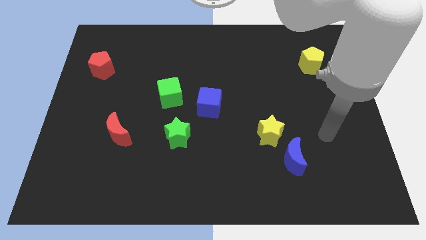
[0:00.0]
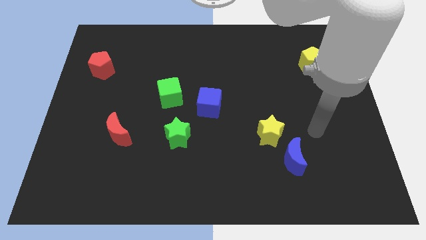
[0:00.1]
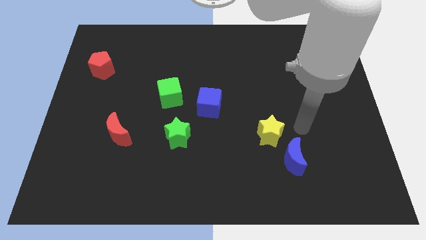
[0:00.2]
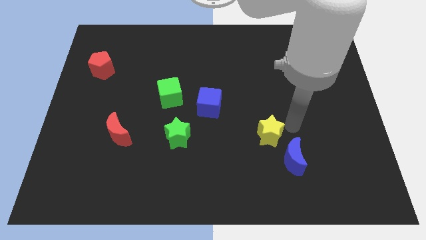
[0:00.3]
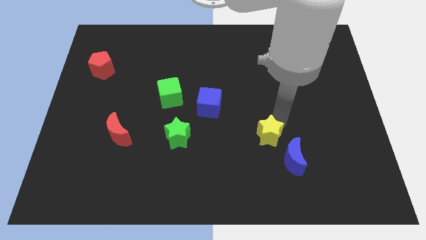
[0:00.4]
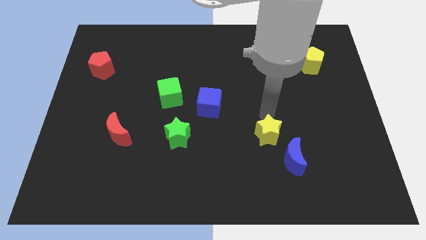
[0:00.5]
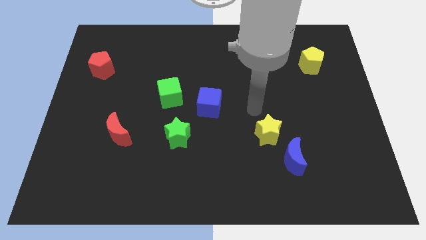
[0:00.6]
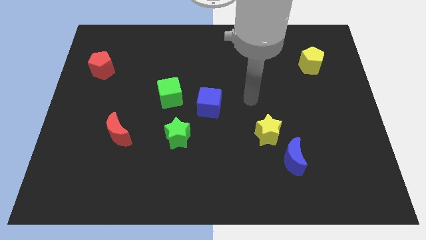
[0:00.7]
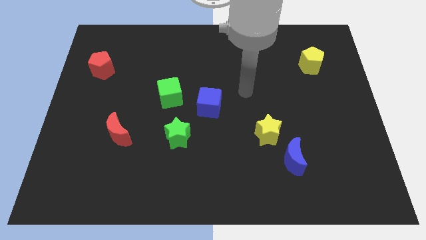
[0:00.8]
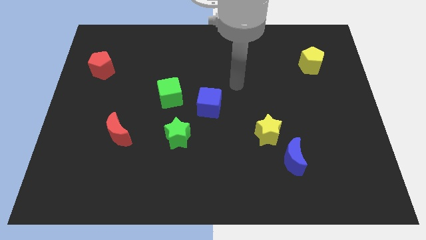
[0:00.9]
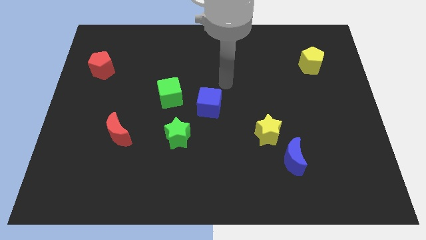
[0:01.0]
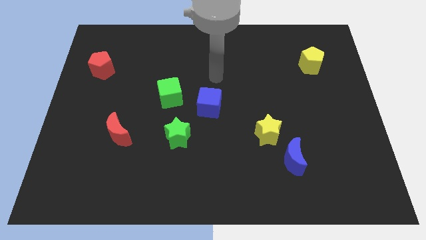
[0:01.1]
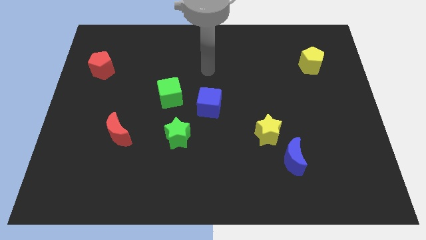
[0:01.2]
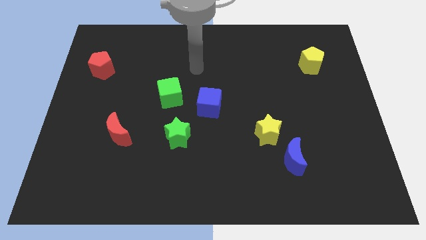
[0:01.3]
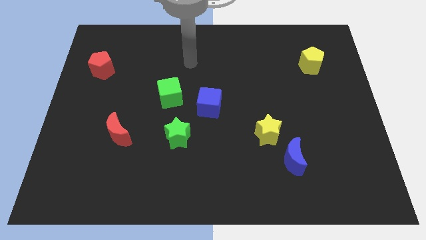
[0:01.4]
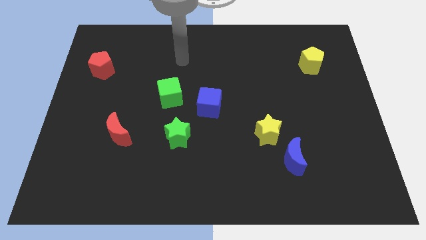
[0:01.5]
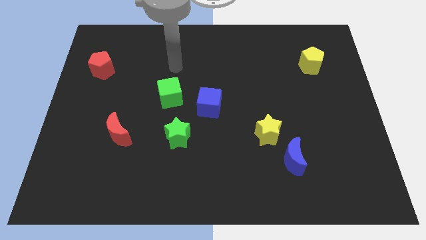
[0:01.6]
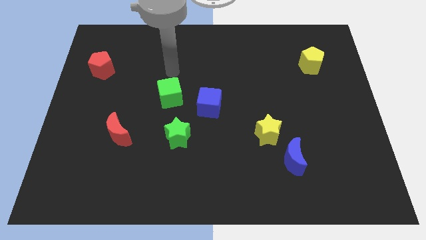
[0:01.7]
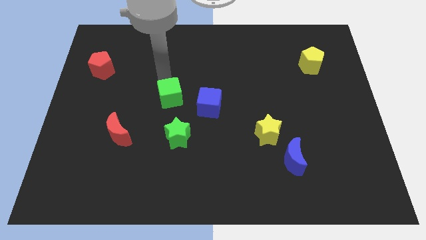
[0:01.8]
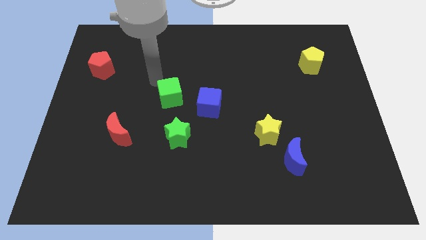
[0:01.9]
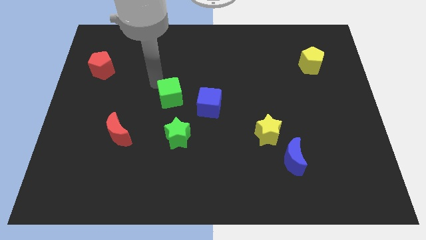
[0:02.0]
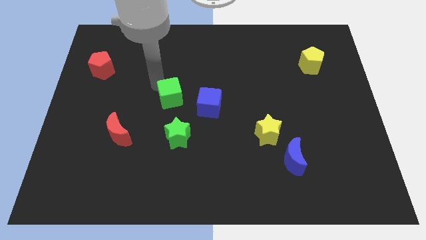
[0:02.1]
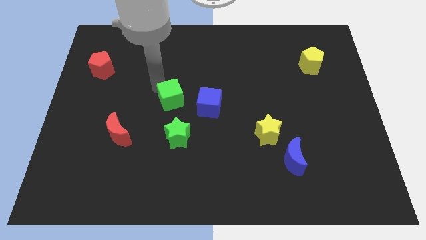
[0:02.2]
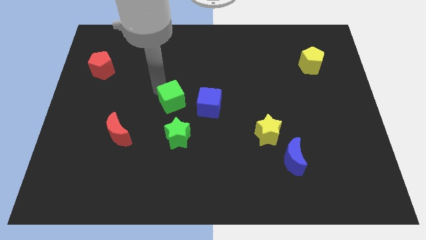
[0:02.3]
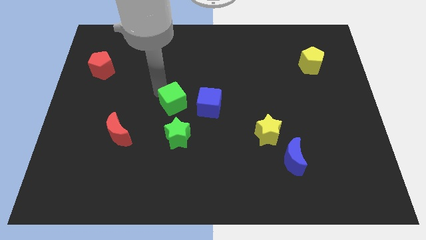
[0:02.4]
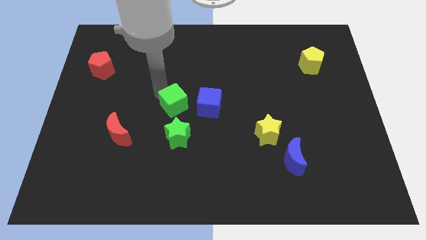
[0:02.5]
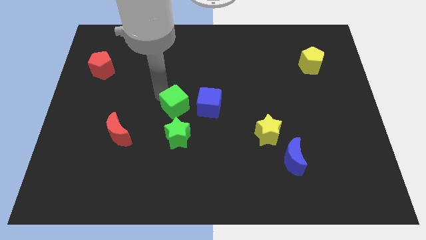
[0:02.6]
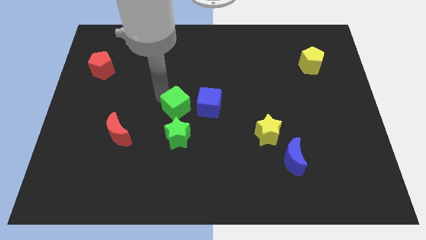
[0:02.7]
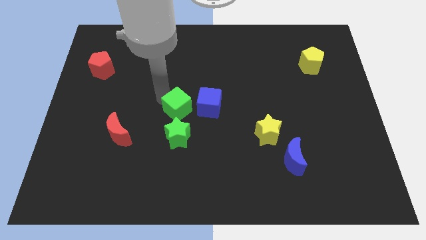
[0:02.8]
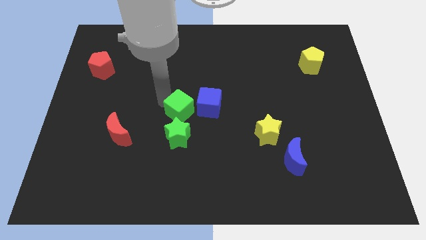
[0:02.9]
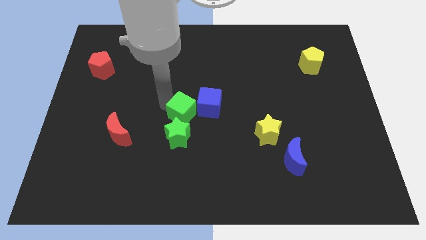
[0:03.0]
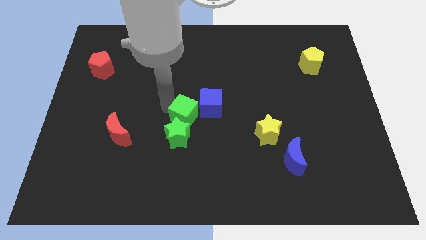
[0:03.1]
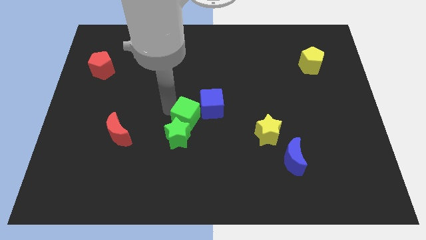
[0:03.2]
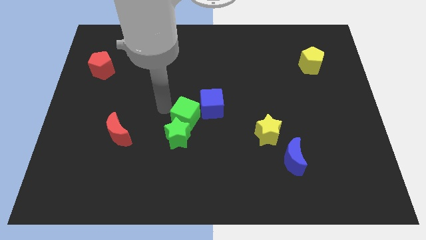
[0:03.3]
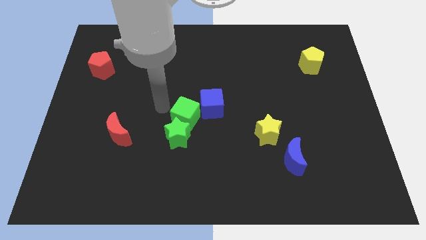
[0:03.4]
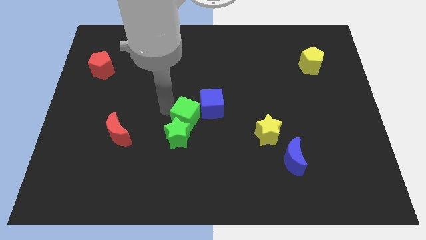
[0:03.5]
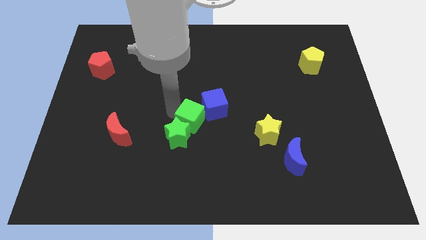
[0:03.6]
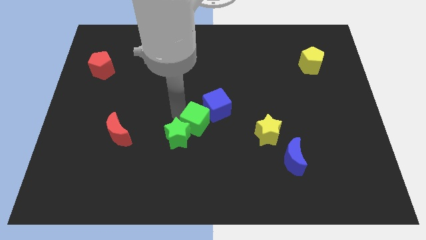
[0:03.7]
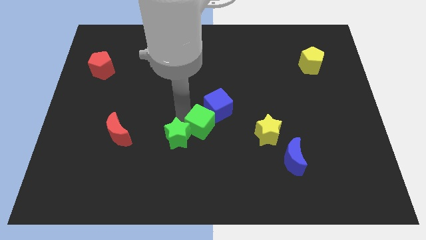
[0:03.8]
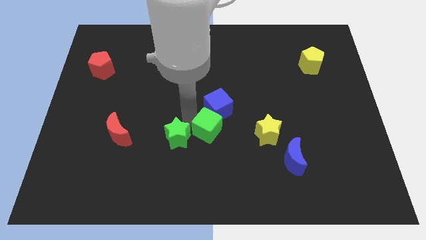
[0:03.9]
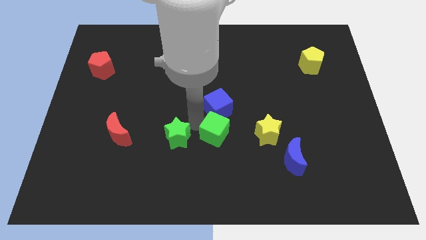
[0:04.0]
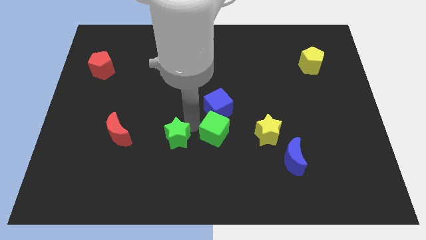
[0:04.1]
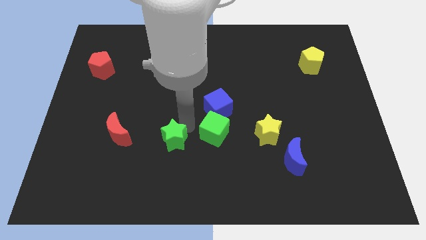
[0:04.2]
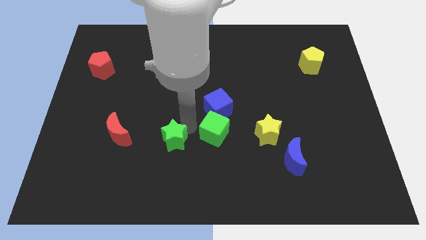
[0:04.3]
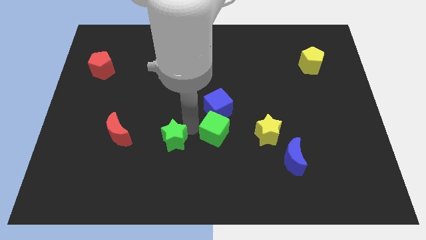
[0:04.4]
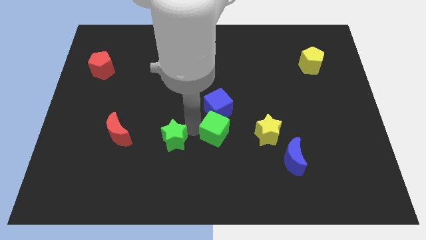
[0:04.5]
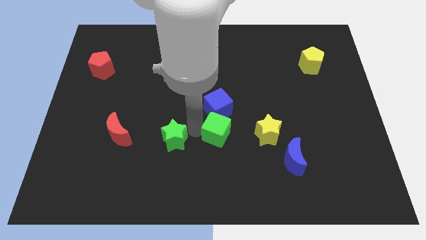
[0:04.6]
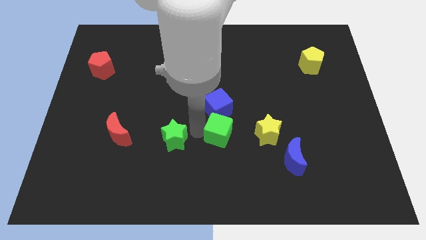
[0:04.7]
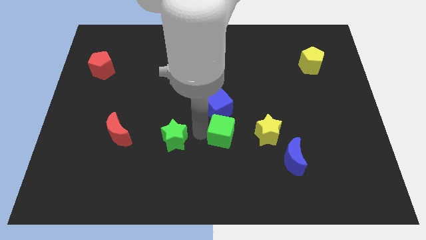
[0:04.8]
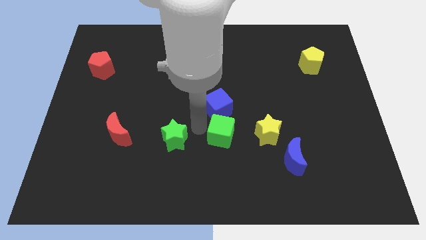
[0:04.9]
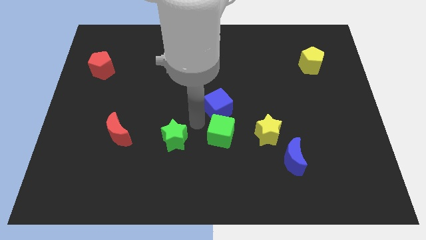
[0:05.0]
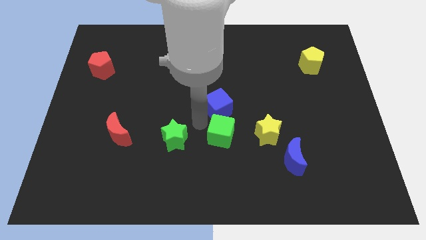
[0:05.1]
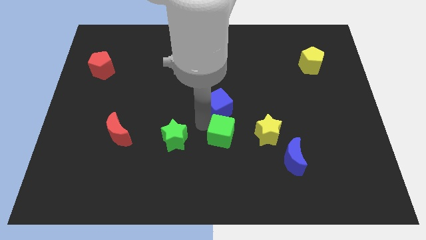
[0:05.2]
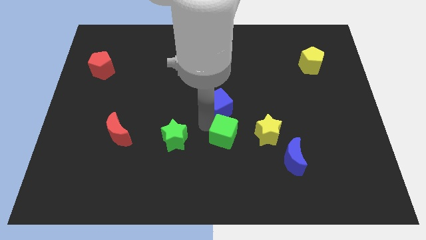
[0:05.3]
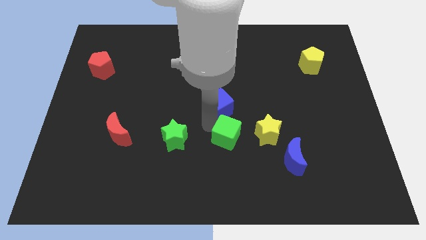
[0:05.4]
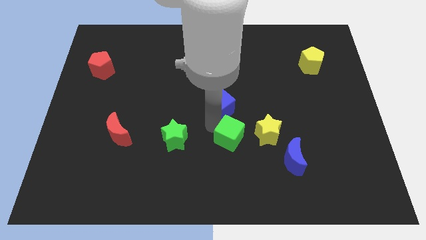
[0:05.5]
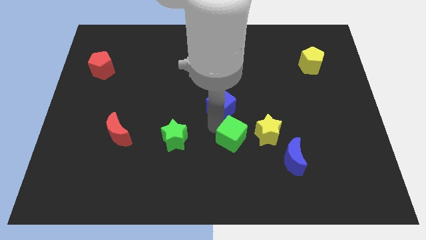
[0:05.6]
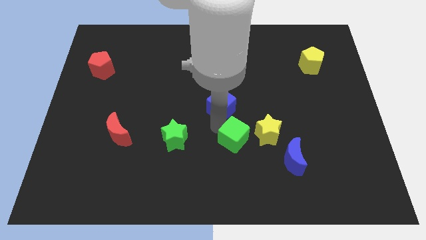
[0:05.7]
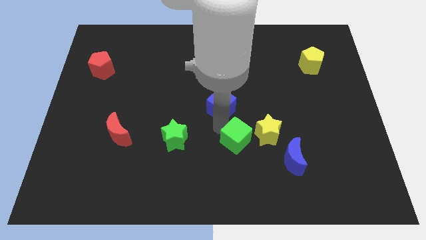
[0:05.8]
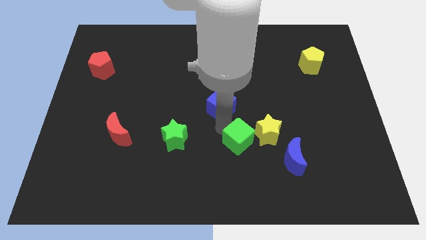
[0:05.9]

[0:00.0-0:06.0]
move the green cube diagonally downwards and right

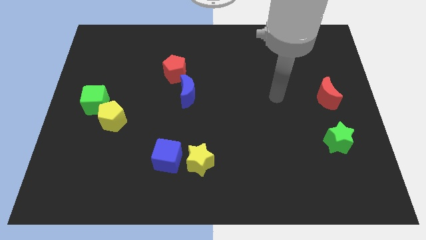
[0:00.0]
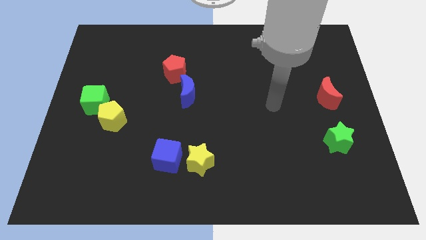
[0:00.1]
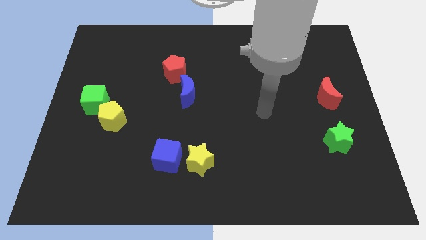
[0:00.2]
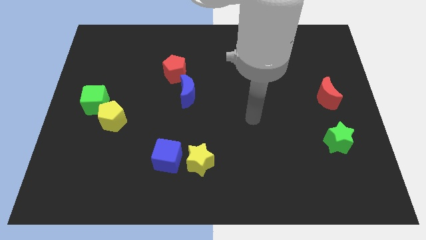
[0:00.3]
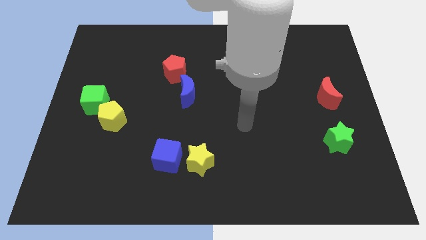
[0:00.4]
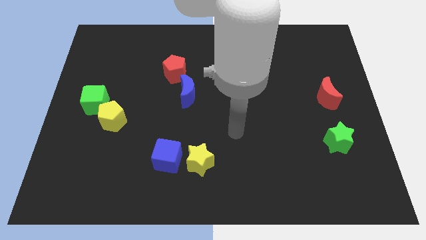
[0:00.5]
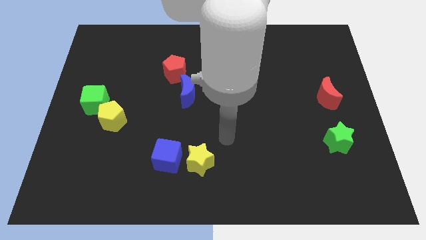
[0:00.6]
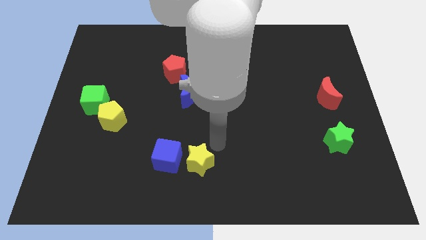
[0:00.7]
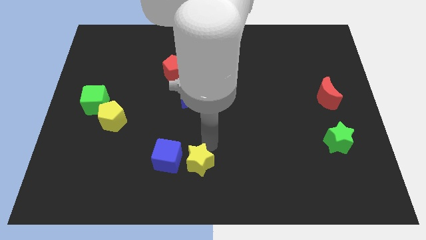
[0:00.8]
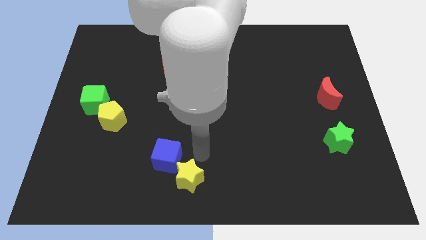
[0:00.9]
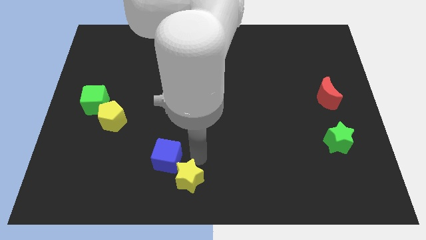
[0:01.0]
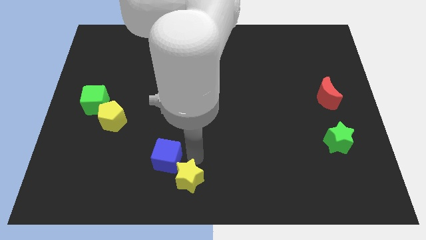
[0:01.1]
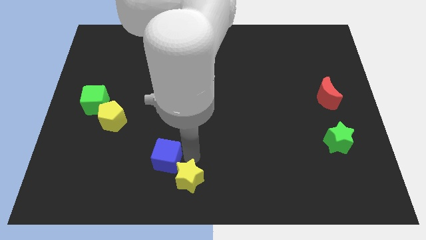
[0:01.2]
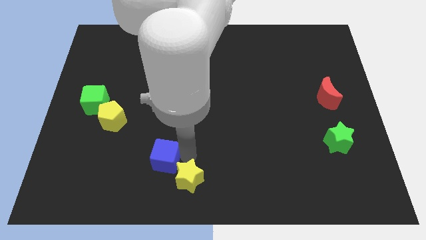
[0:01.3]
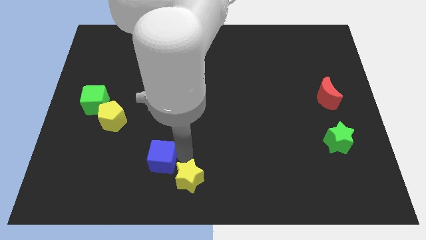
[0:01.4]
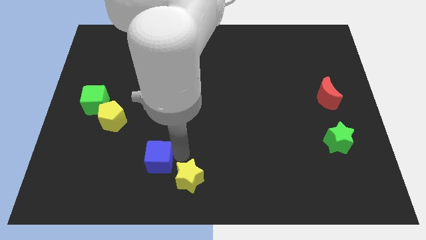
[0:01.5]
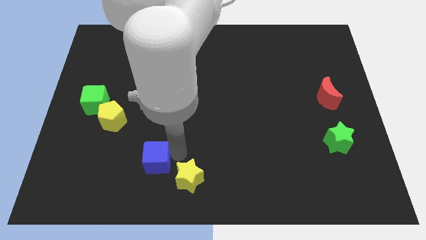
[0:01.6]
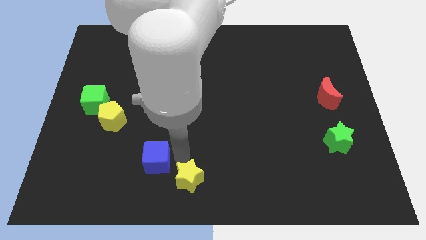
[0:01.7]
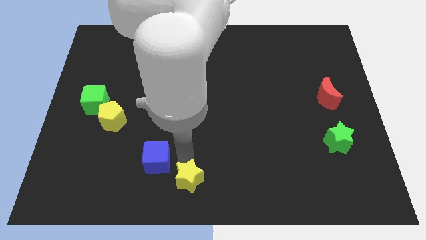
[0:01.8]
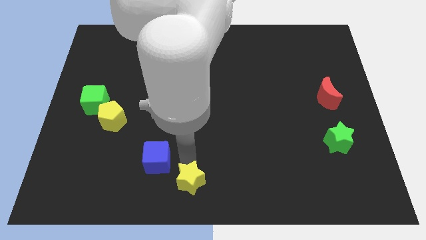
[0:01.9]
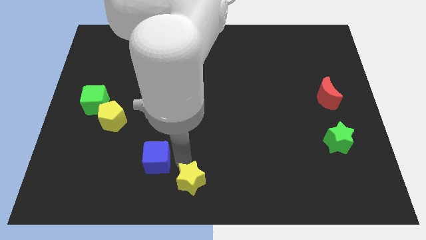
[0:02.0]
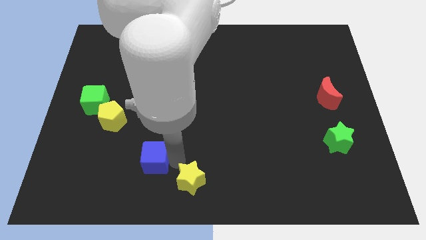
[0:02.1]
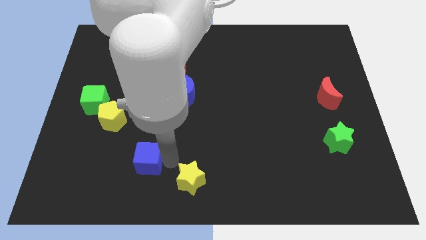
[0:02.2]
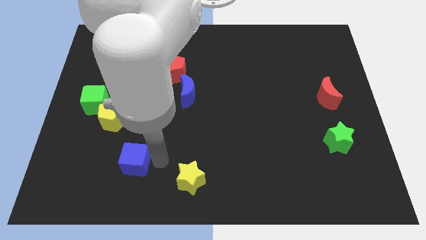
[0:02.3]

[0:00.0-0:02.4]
slightly push the blue cube to the left
